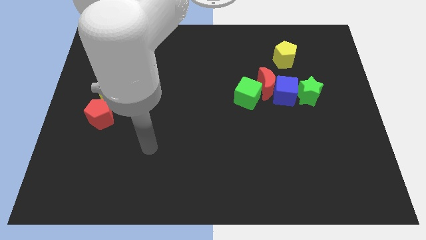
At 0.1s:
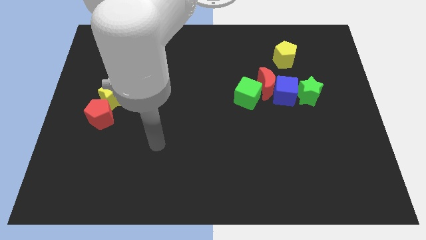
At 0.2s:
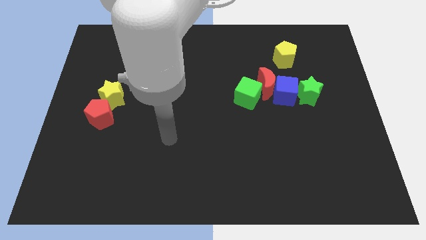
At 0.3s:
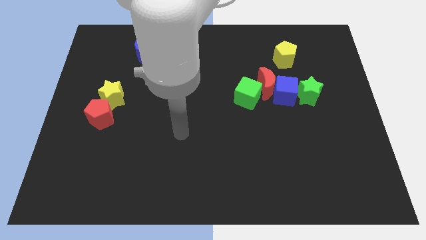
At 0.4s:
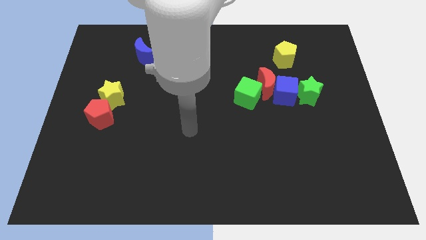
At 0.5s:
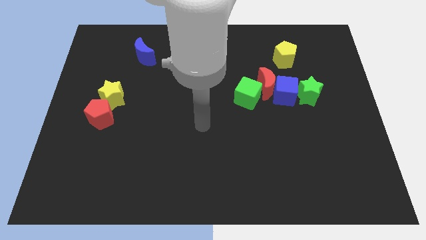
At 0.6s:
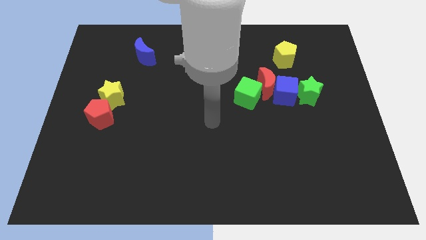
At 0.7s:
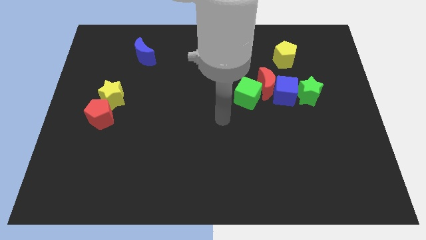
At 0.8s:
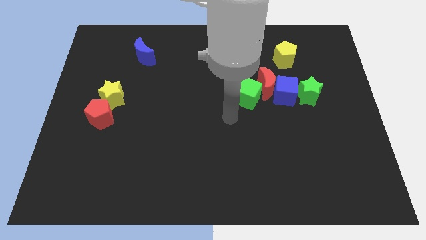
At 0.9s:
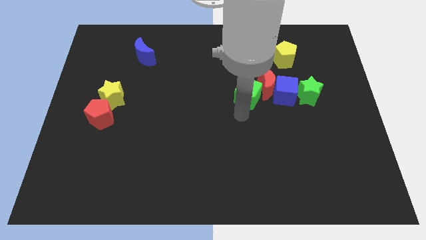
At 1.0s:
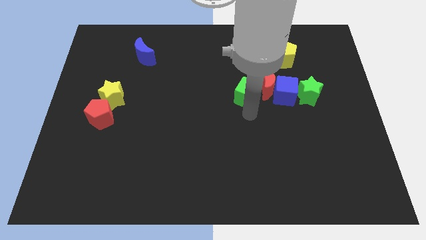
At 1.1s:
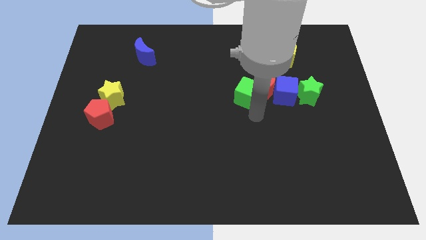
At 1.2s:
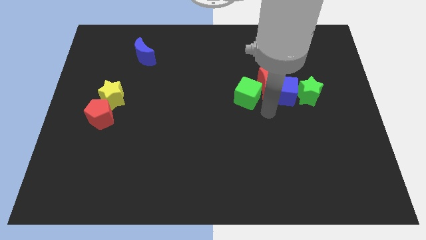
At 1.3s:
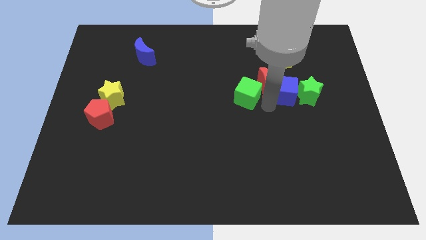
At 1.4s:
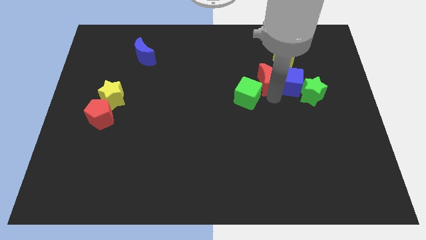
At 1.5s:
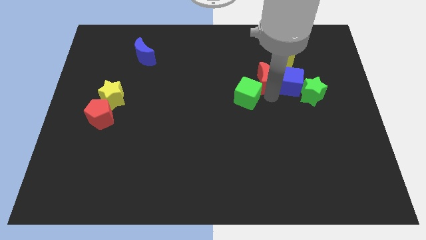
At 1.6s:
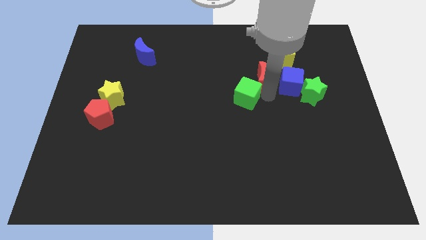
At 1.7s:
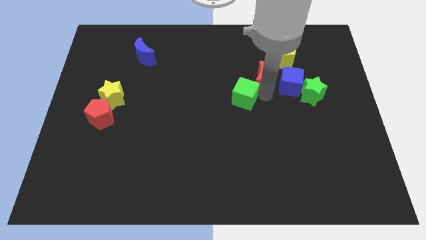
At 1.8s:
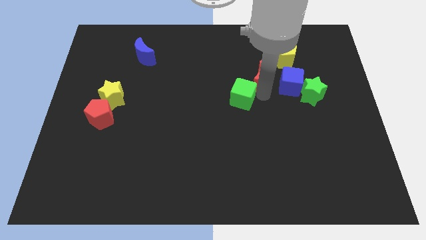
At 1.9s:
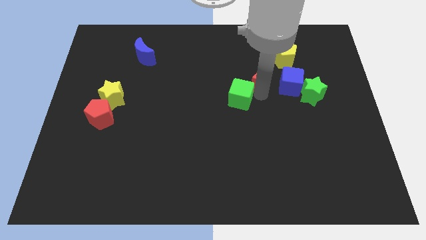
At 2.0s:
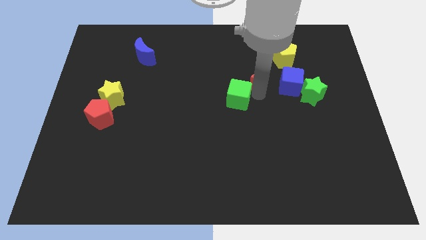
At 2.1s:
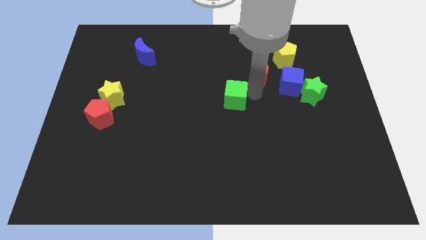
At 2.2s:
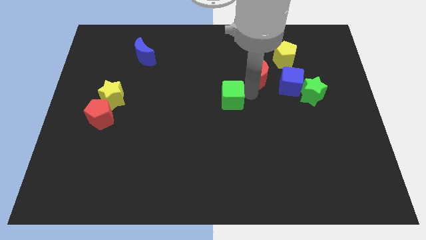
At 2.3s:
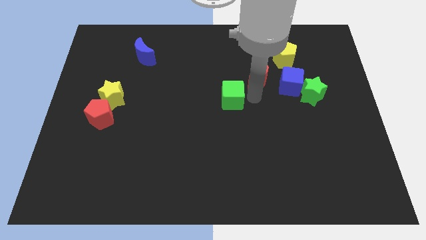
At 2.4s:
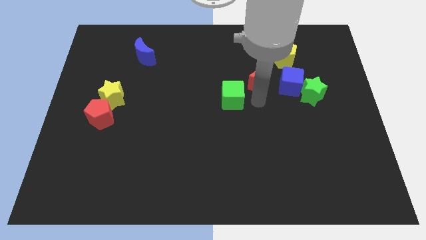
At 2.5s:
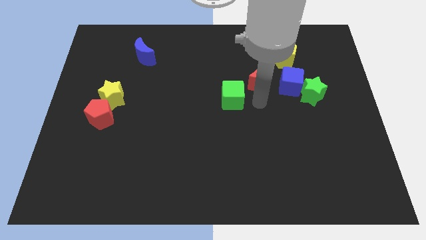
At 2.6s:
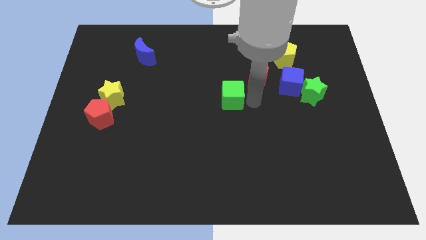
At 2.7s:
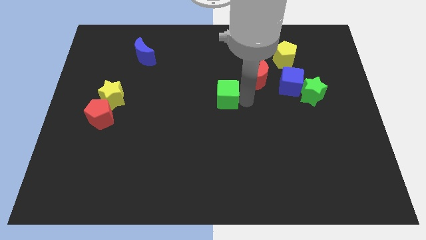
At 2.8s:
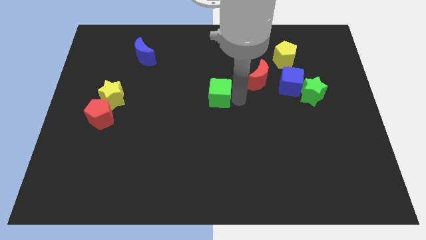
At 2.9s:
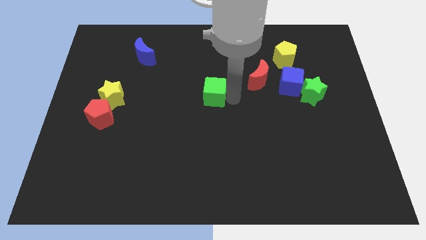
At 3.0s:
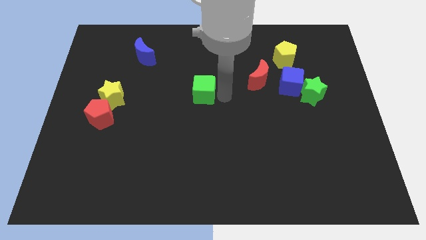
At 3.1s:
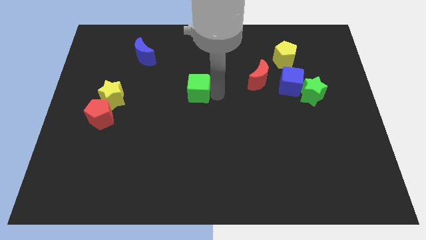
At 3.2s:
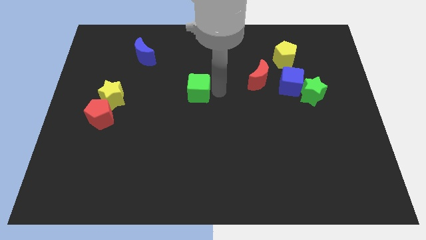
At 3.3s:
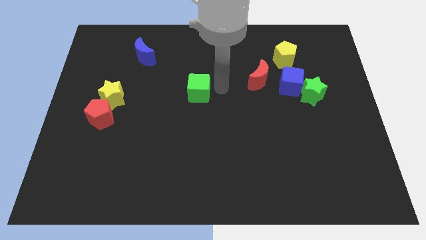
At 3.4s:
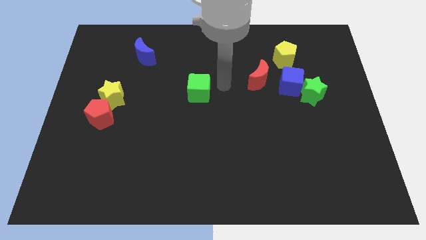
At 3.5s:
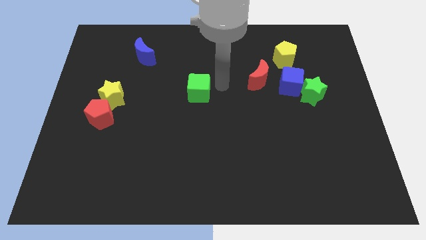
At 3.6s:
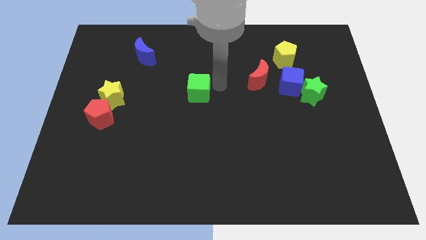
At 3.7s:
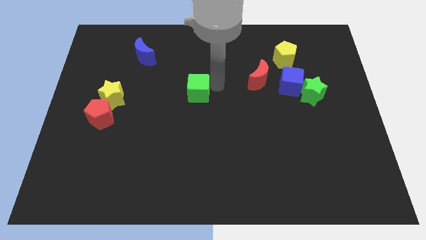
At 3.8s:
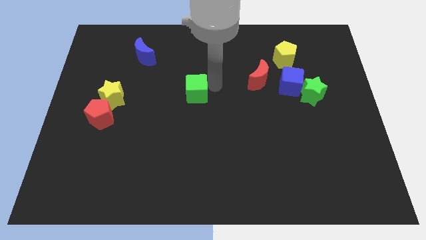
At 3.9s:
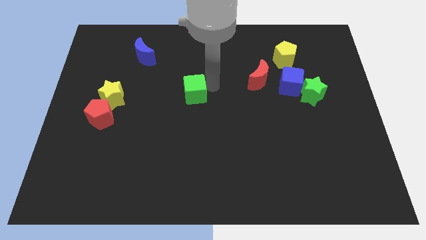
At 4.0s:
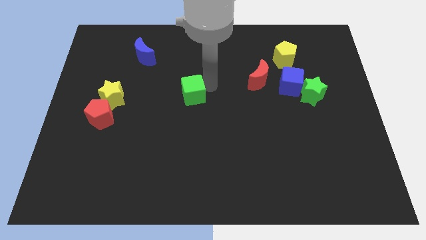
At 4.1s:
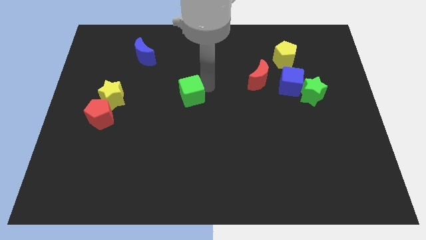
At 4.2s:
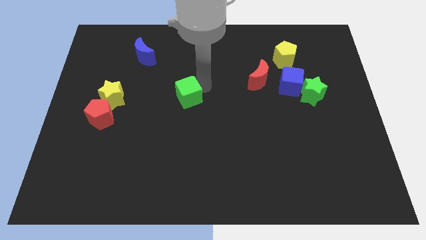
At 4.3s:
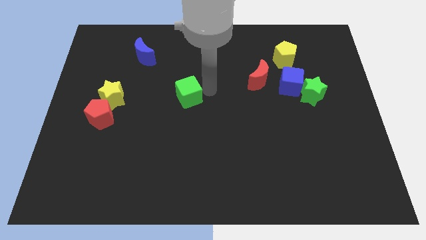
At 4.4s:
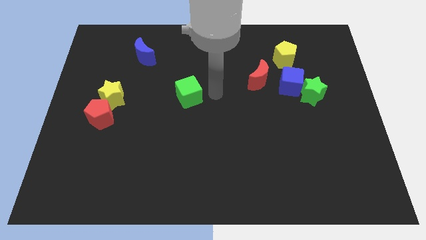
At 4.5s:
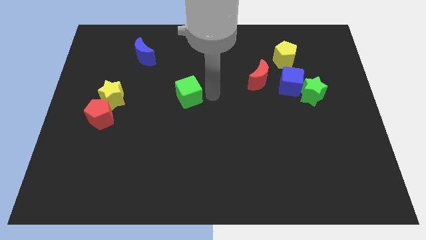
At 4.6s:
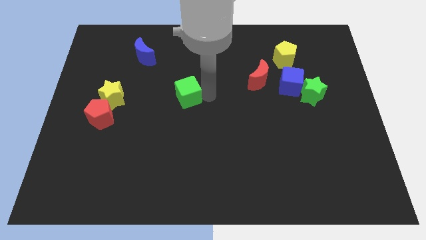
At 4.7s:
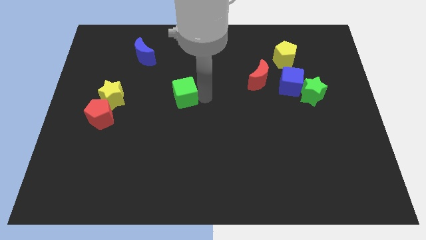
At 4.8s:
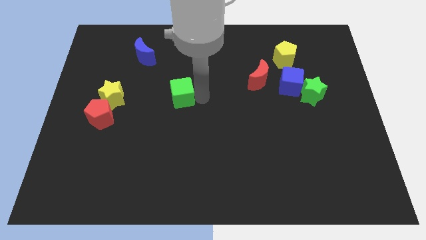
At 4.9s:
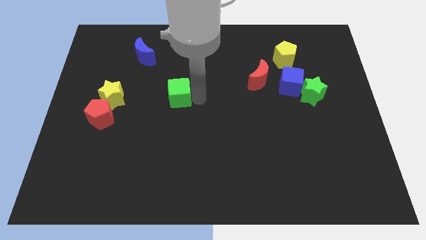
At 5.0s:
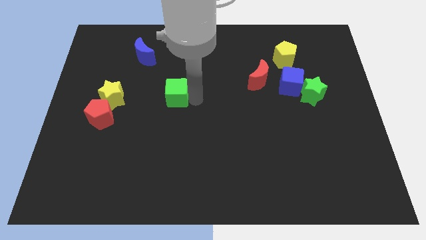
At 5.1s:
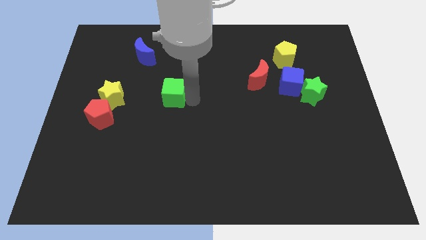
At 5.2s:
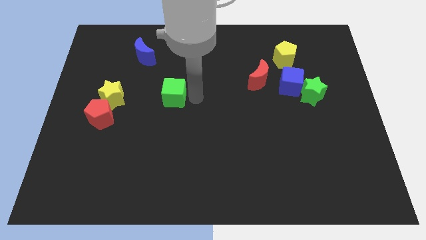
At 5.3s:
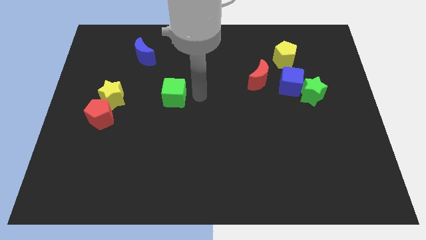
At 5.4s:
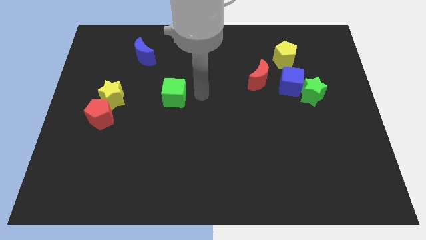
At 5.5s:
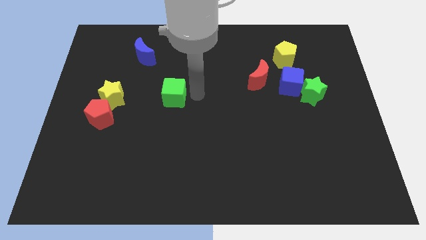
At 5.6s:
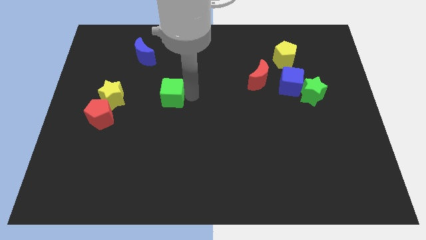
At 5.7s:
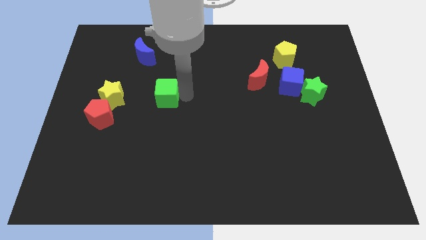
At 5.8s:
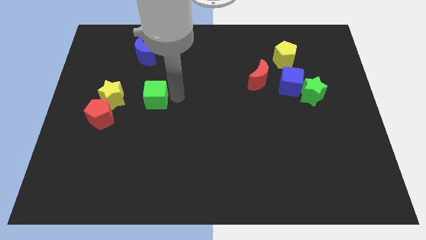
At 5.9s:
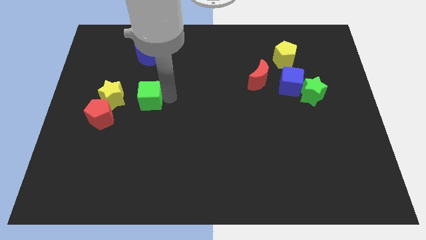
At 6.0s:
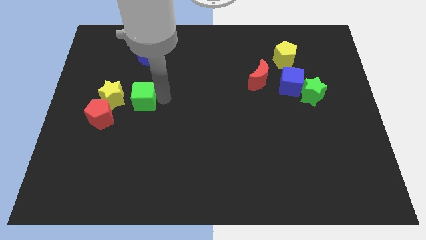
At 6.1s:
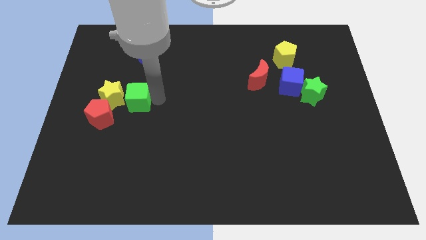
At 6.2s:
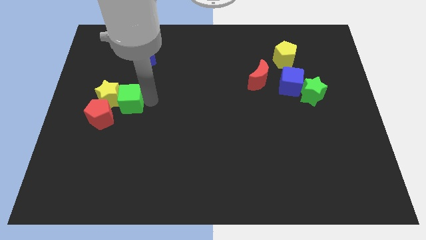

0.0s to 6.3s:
move the green cube to the yellow star

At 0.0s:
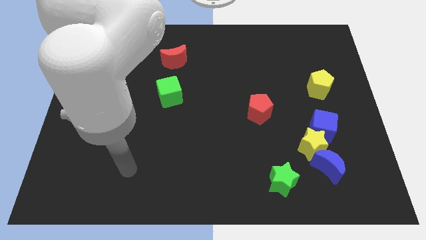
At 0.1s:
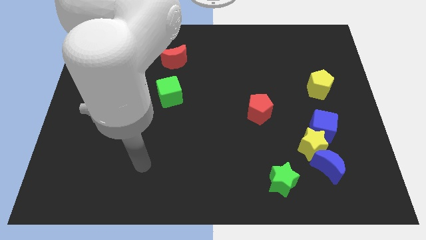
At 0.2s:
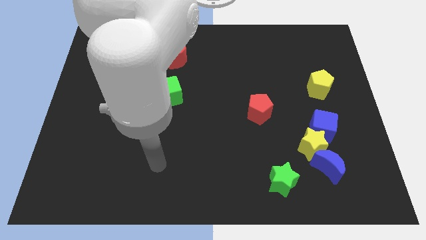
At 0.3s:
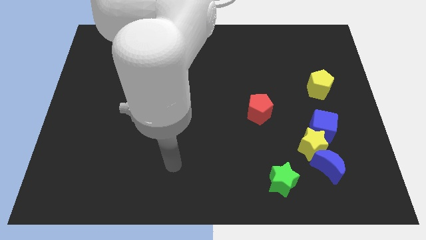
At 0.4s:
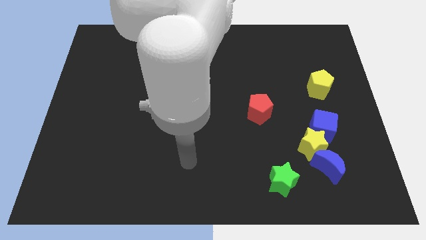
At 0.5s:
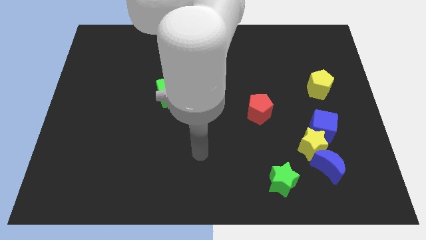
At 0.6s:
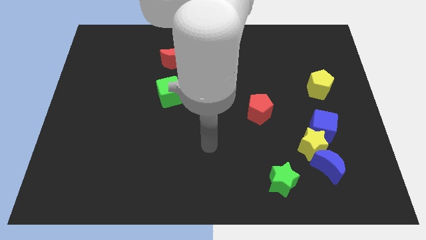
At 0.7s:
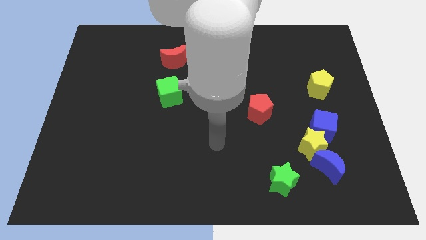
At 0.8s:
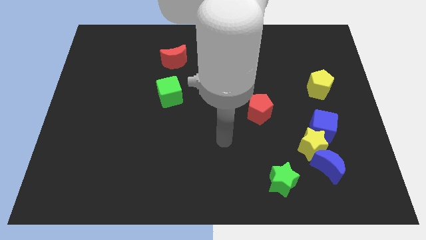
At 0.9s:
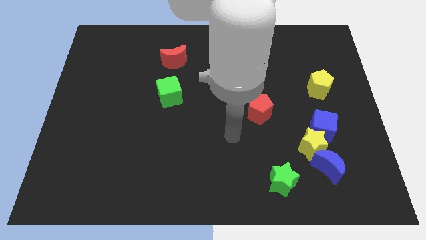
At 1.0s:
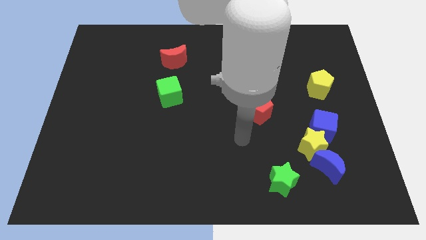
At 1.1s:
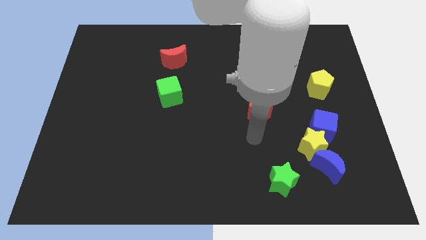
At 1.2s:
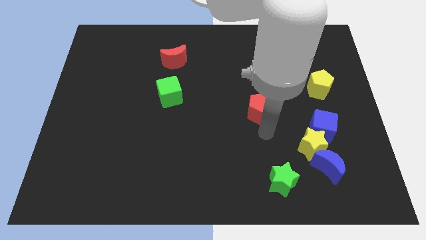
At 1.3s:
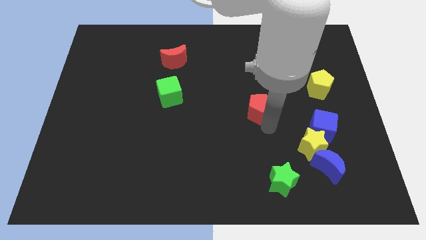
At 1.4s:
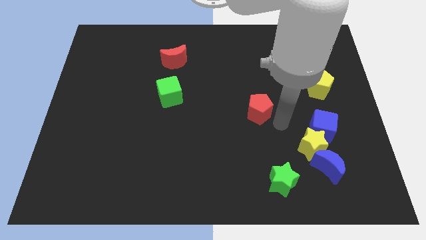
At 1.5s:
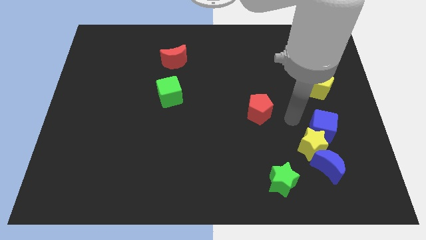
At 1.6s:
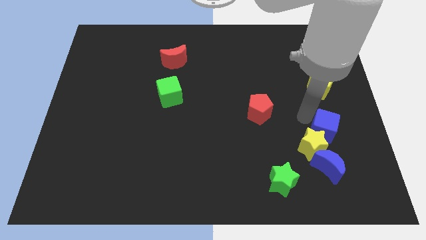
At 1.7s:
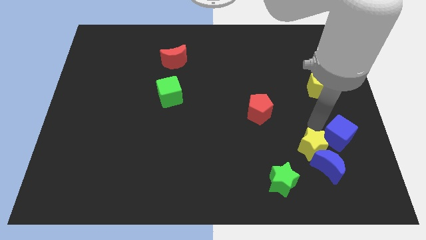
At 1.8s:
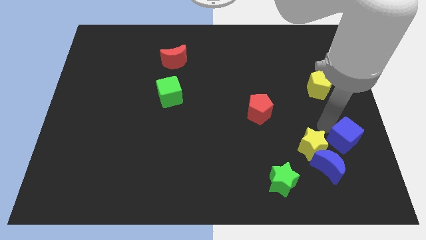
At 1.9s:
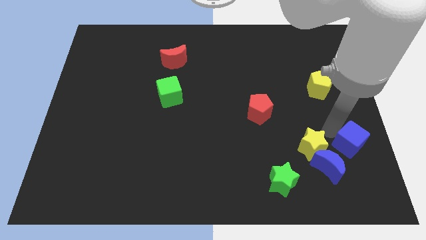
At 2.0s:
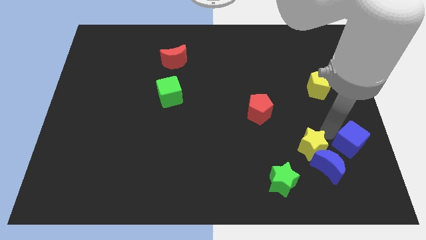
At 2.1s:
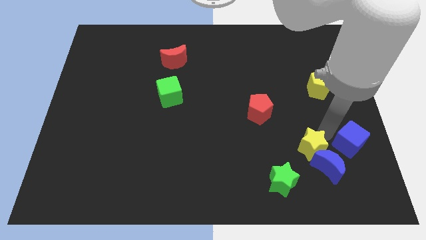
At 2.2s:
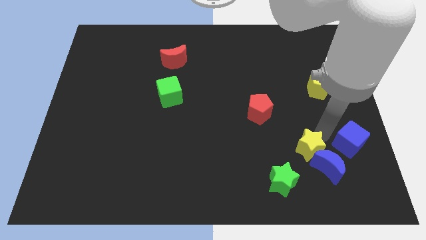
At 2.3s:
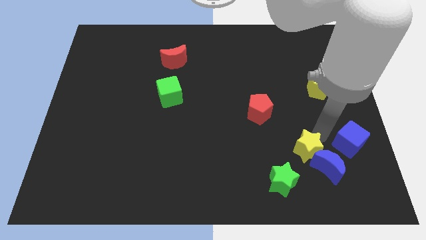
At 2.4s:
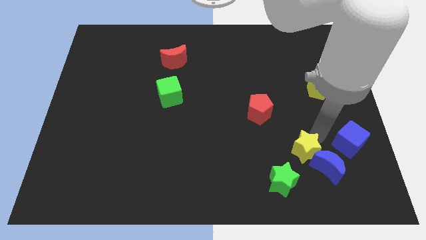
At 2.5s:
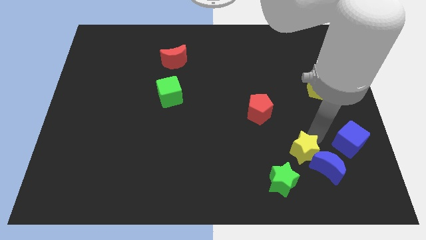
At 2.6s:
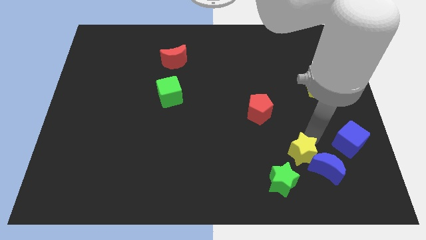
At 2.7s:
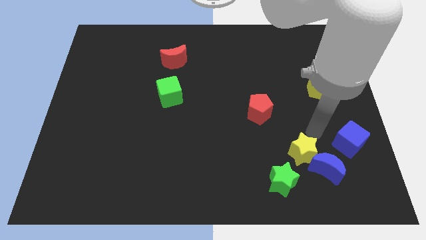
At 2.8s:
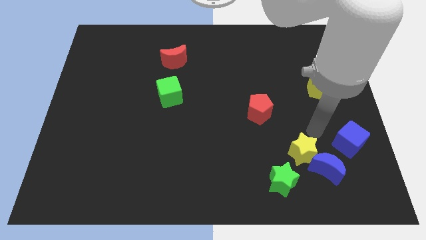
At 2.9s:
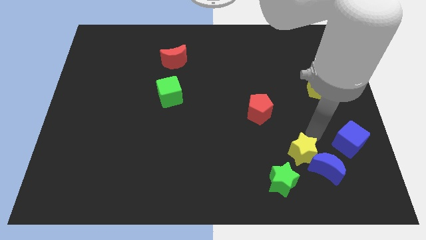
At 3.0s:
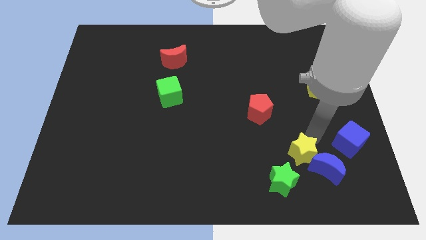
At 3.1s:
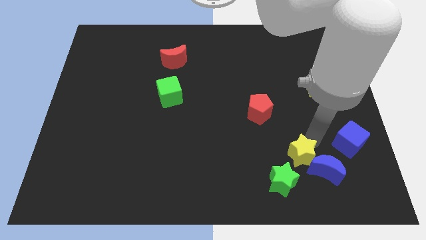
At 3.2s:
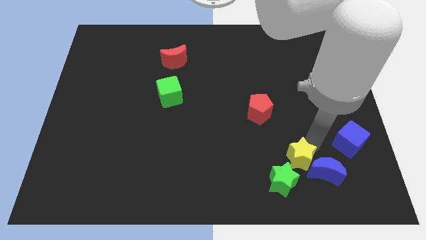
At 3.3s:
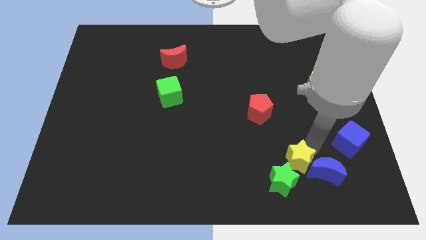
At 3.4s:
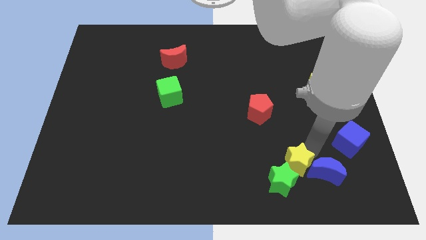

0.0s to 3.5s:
put the yellow star next to the green star
